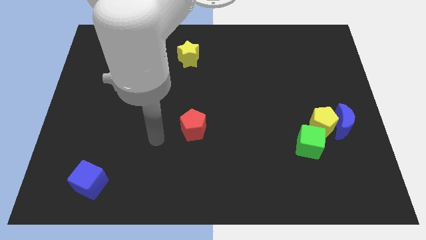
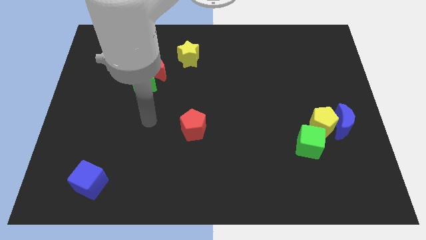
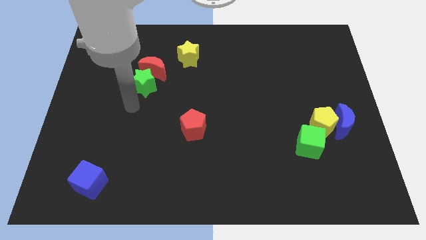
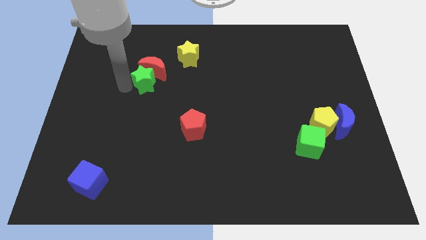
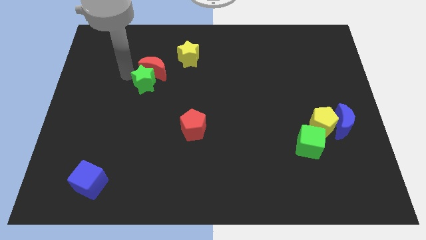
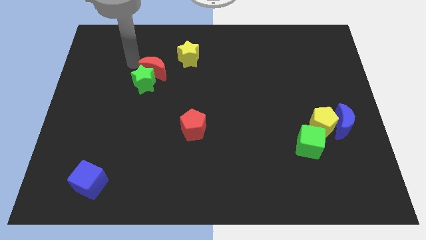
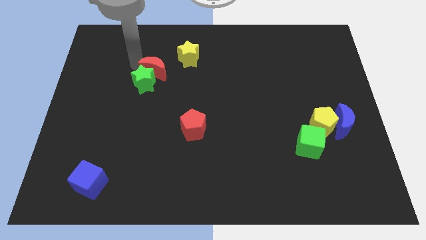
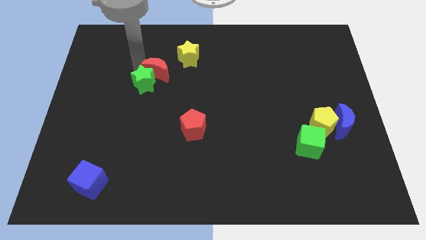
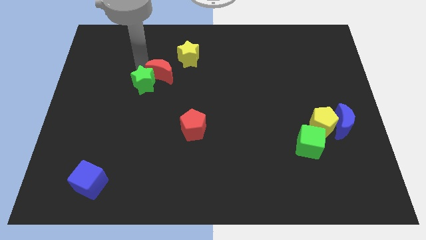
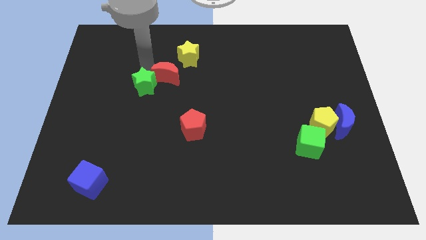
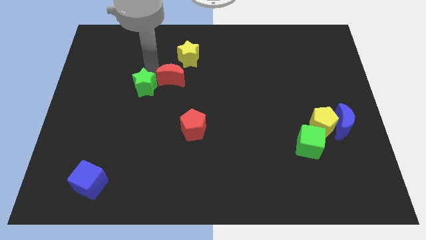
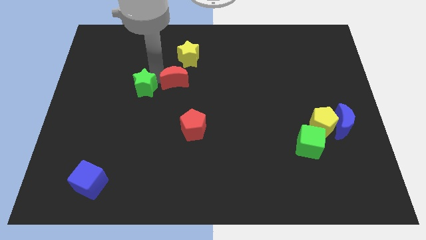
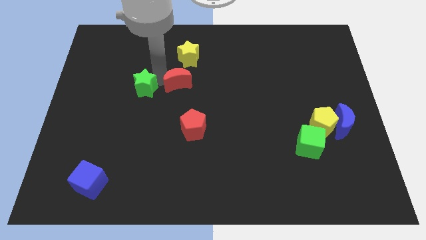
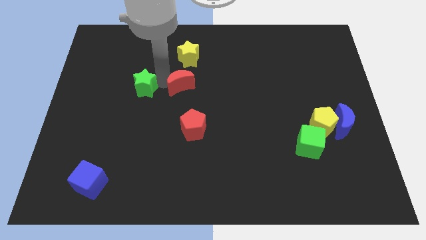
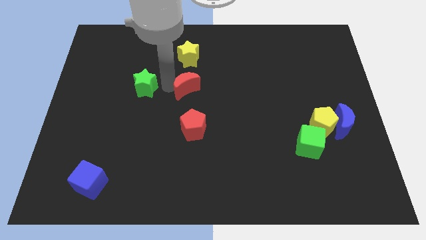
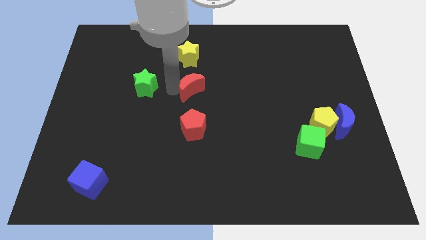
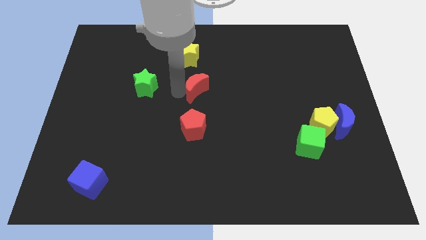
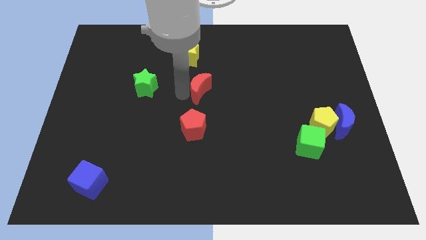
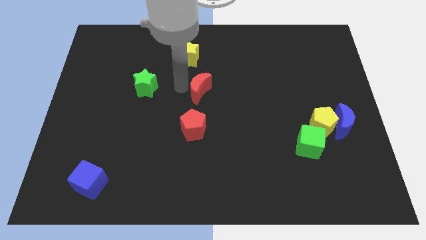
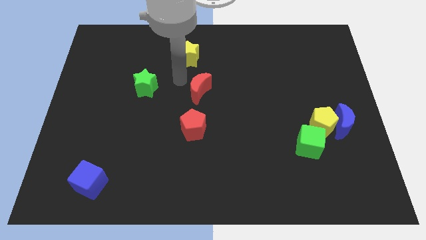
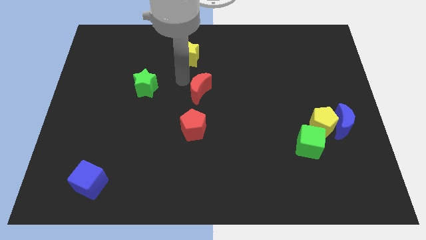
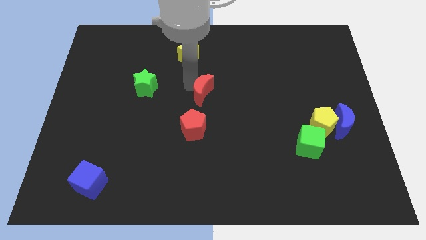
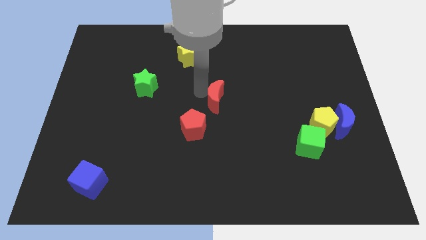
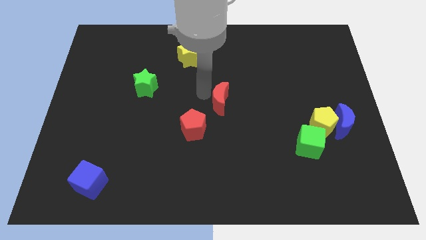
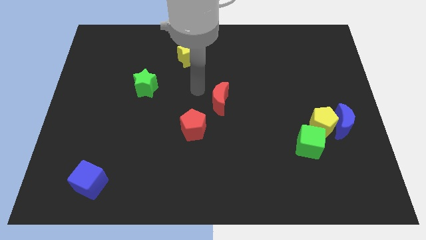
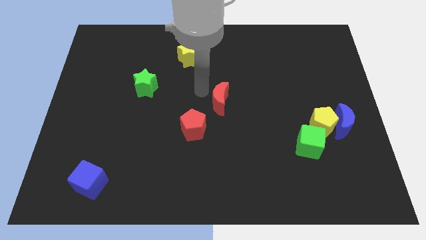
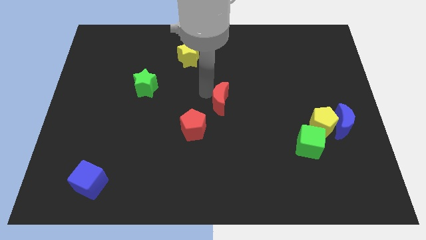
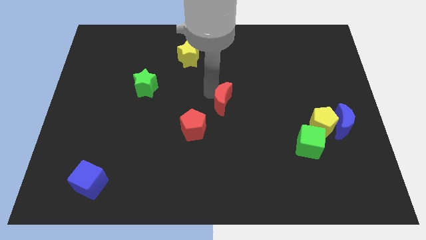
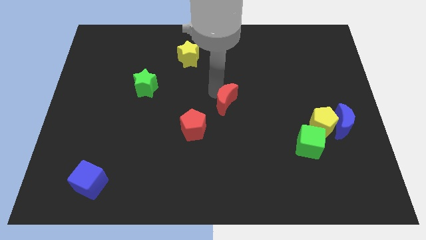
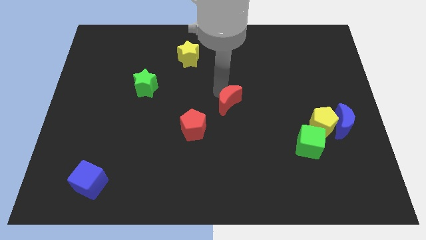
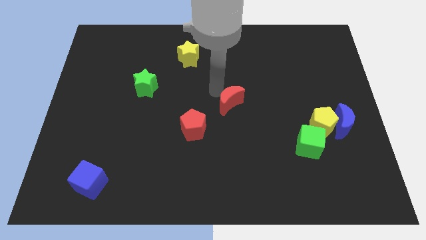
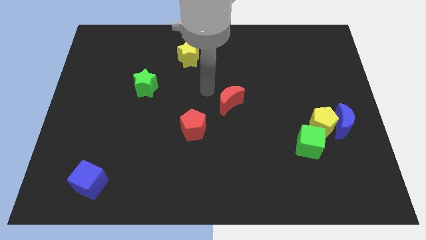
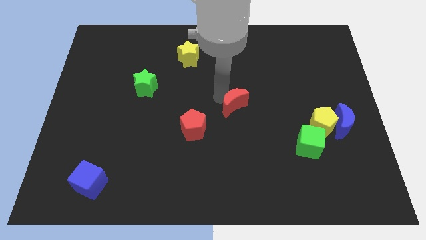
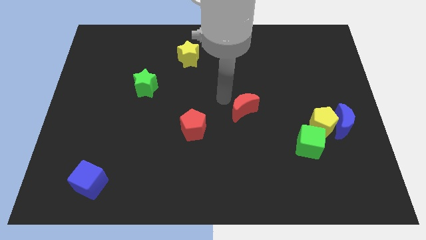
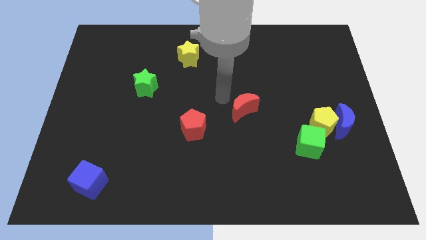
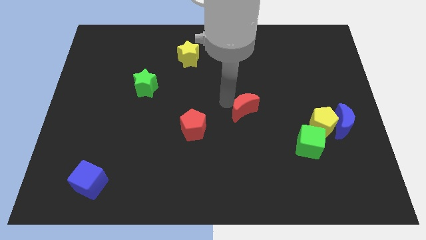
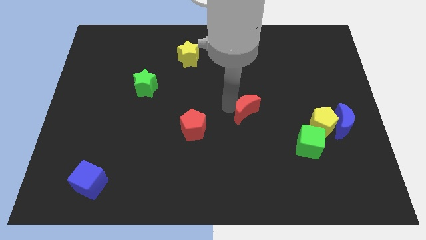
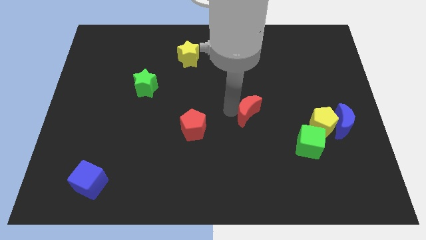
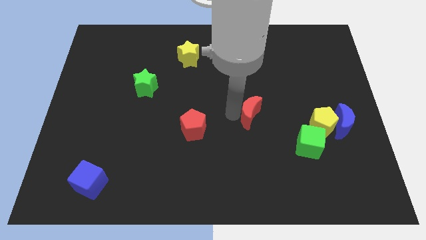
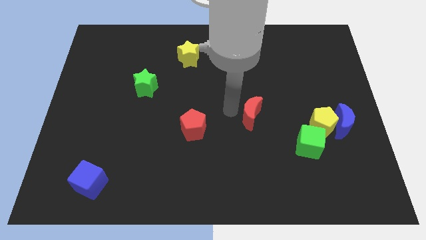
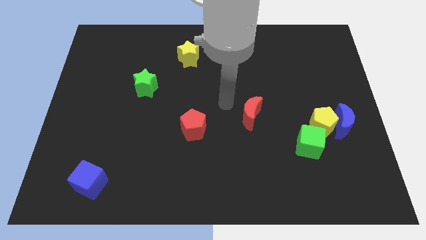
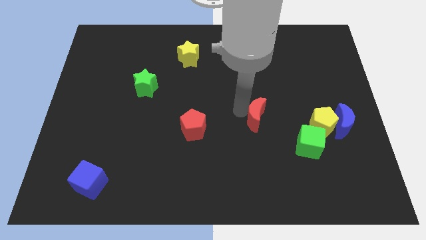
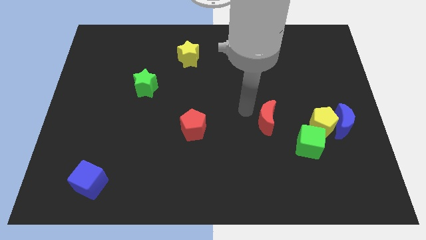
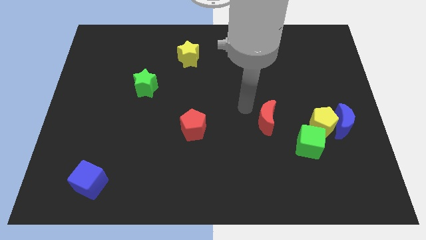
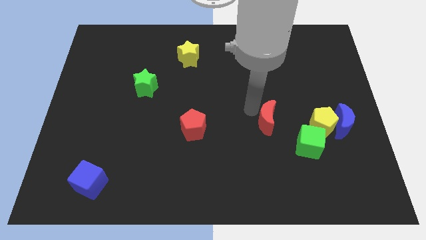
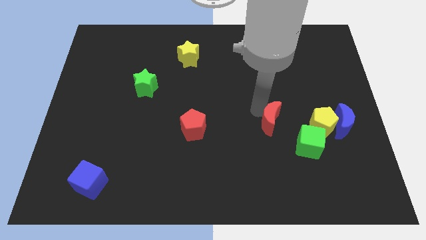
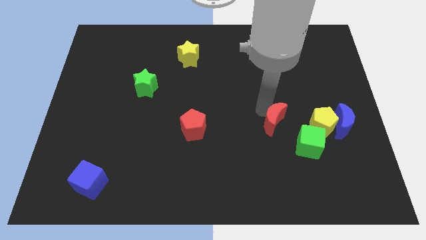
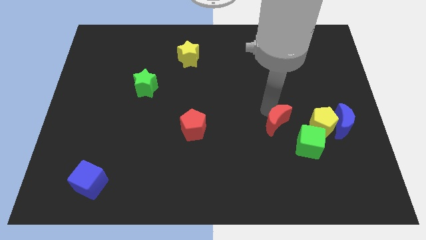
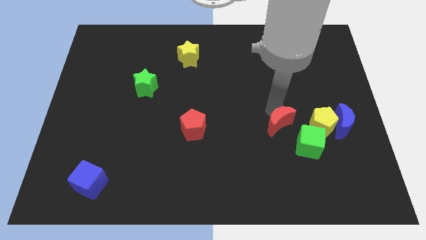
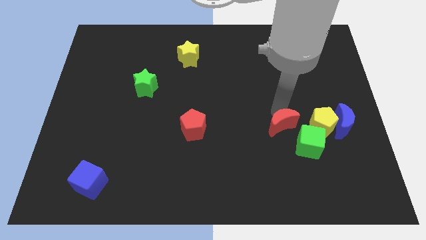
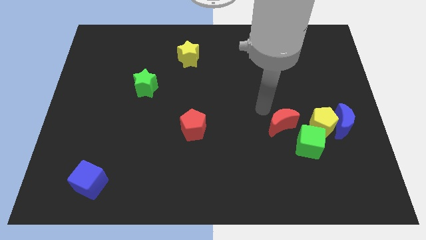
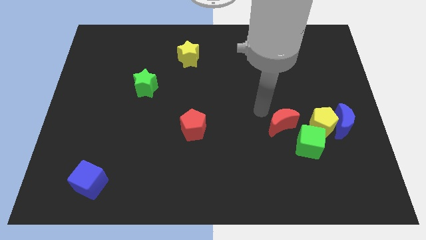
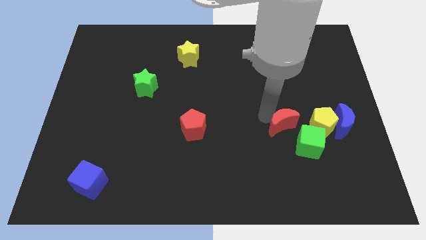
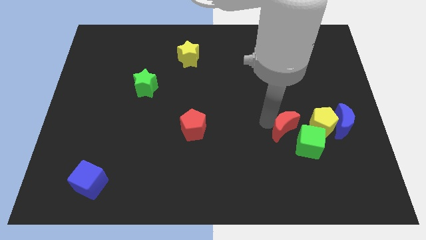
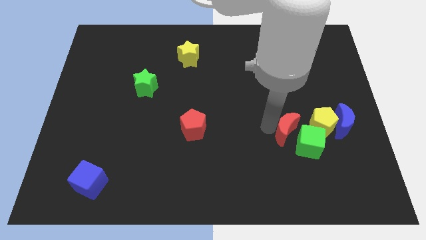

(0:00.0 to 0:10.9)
slide the red moon close to the green cube

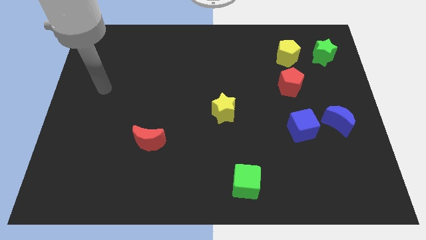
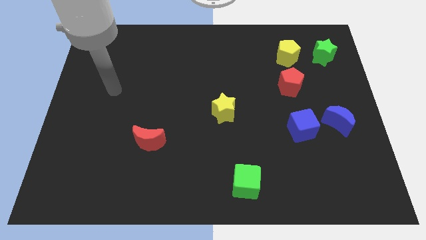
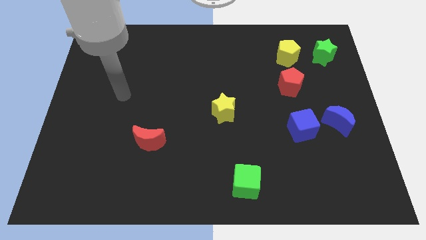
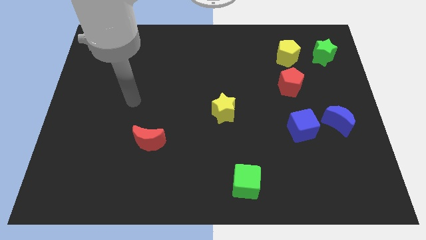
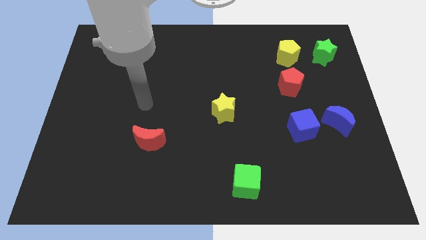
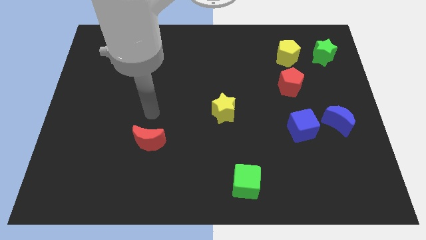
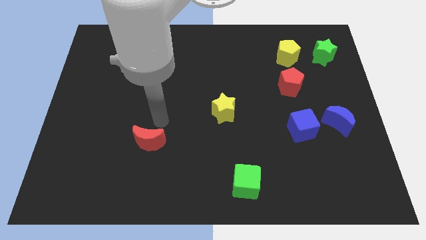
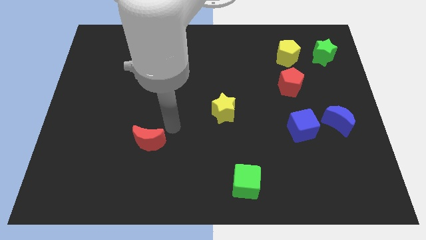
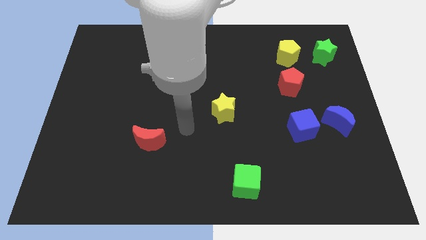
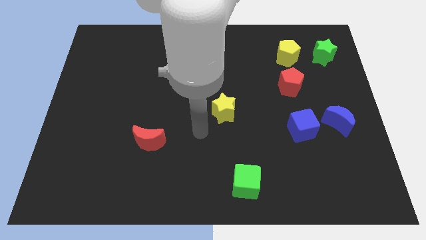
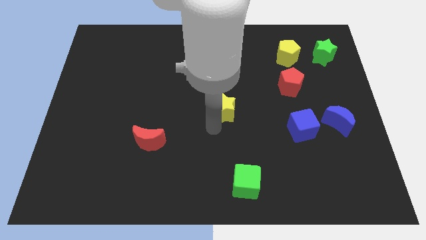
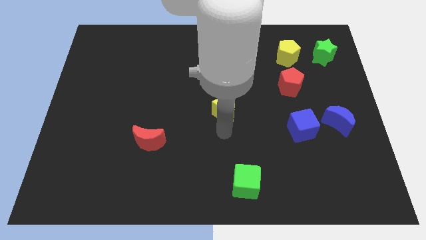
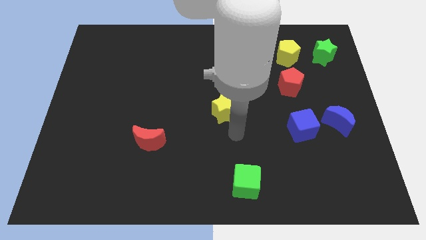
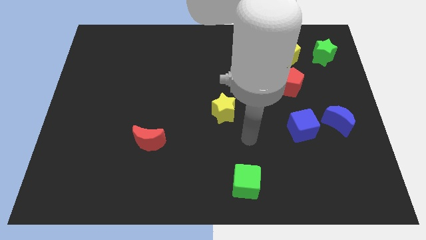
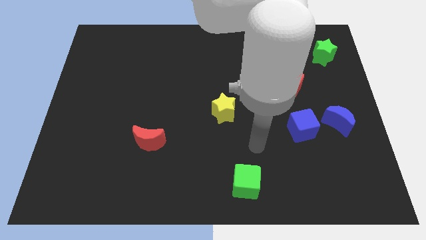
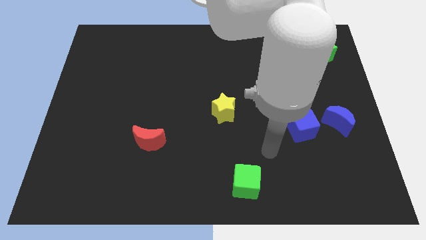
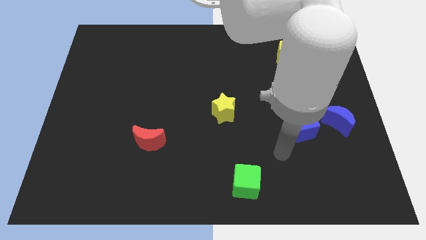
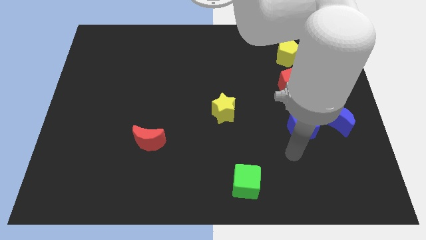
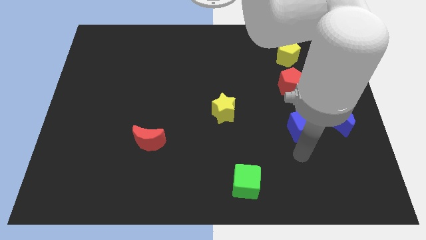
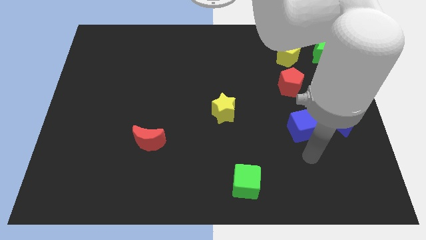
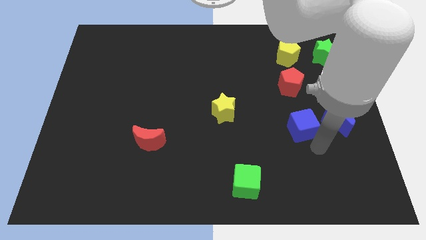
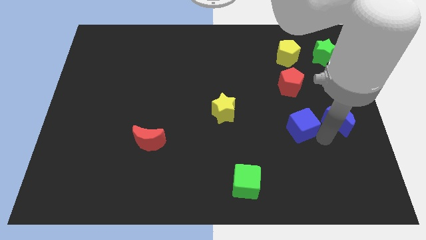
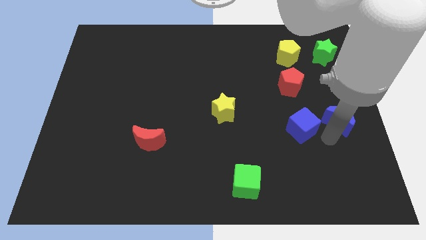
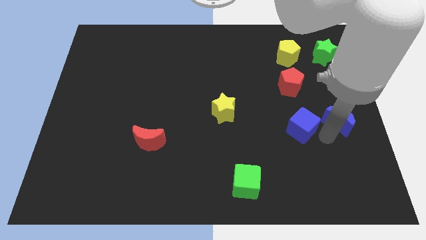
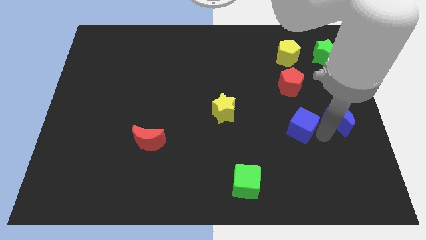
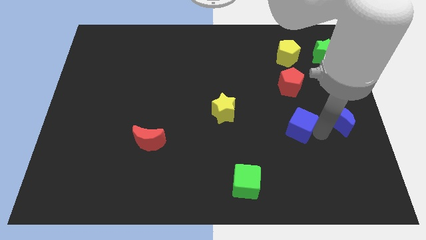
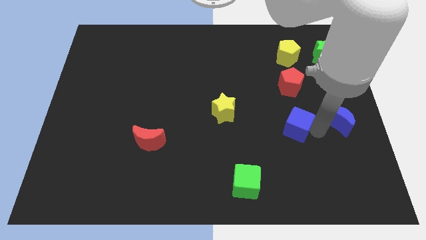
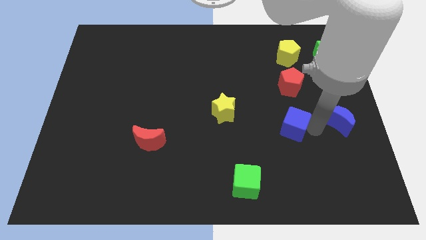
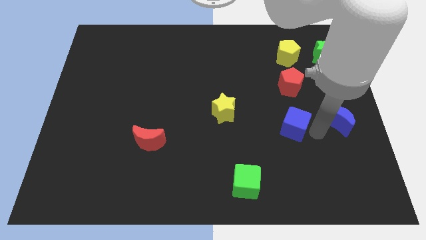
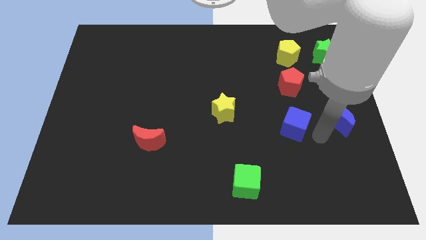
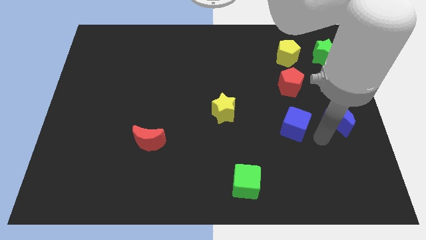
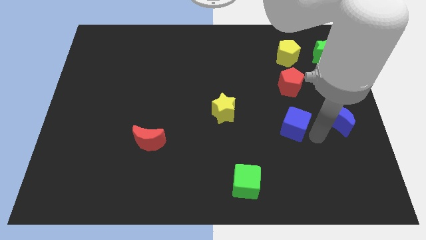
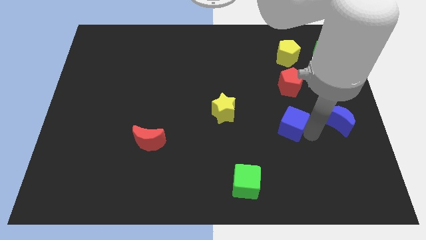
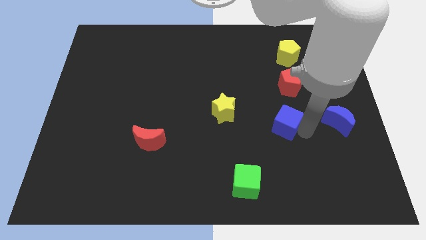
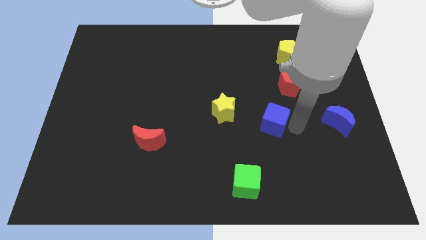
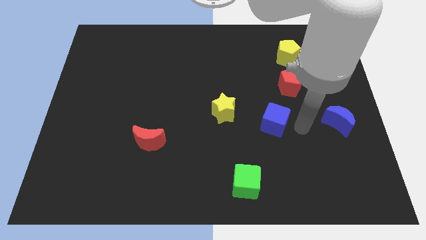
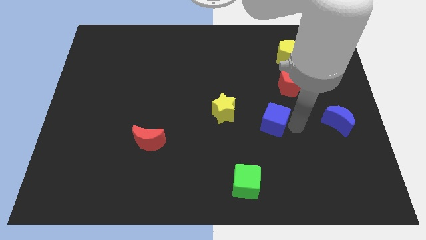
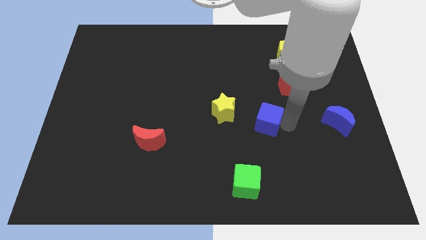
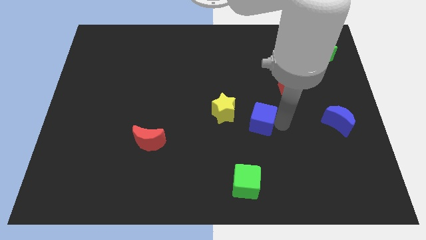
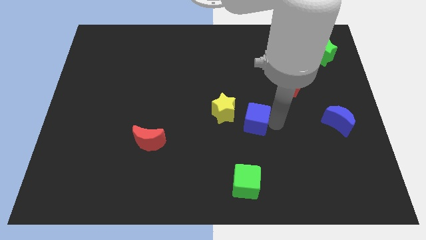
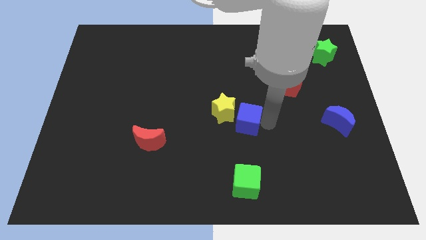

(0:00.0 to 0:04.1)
put the blue cube next to the yellow star
